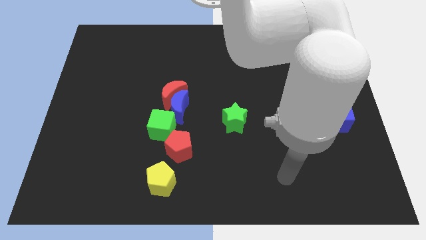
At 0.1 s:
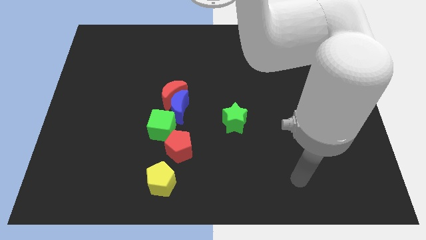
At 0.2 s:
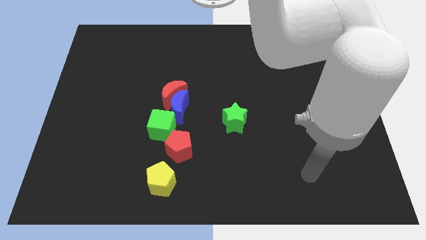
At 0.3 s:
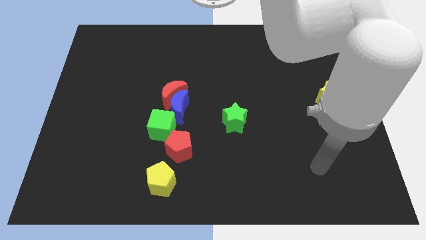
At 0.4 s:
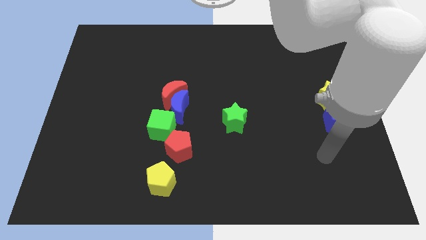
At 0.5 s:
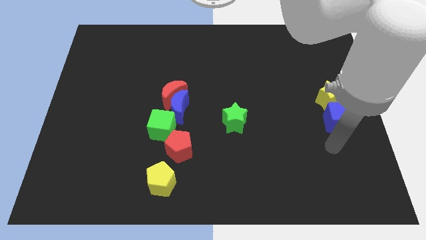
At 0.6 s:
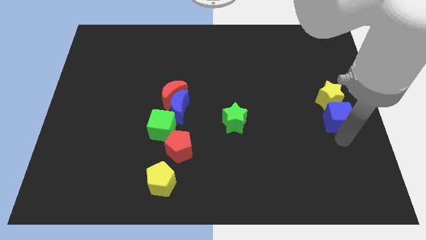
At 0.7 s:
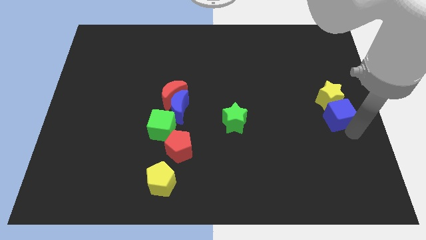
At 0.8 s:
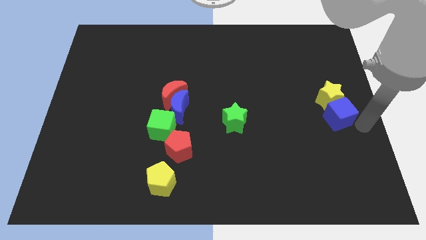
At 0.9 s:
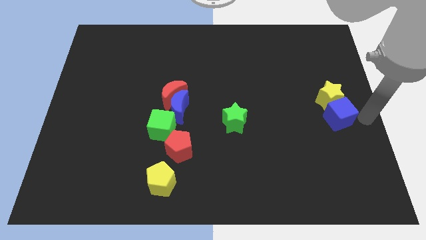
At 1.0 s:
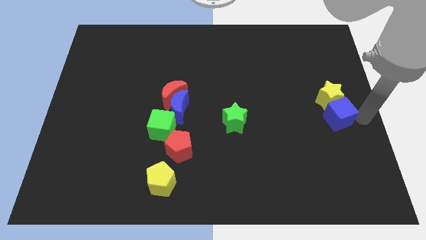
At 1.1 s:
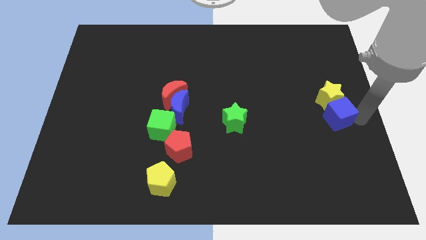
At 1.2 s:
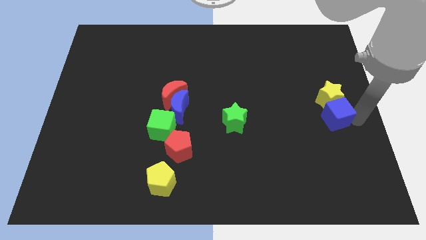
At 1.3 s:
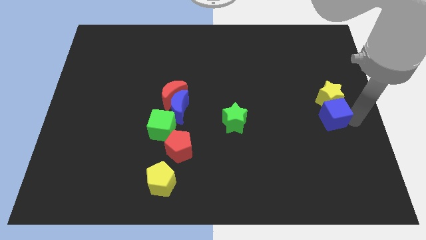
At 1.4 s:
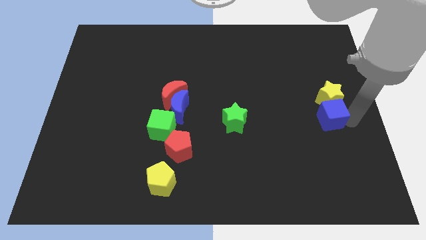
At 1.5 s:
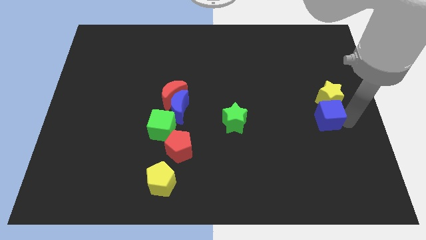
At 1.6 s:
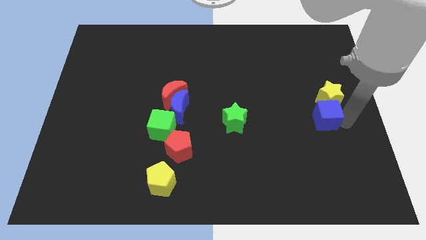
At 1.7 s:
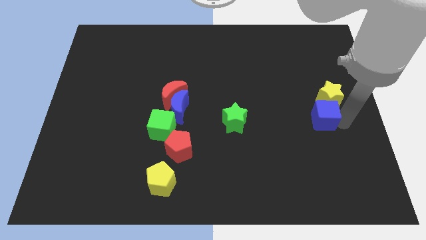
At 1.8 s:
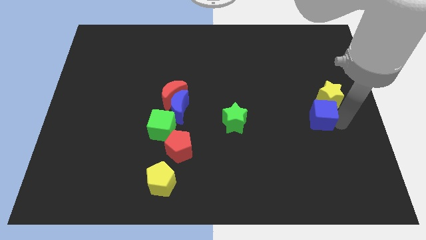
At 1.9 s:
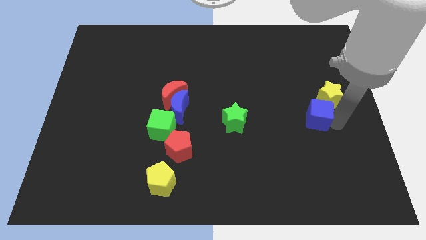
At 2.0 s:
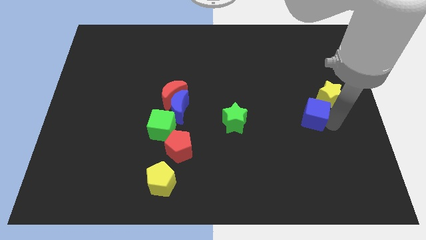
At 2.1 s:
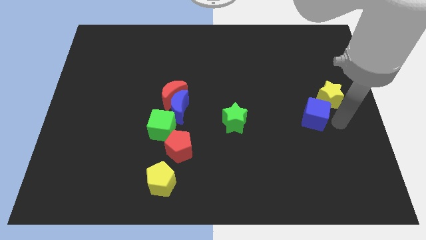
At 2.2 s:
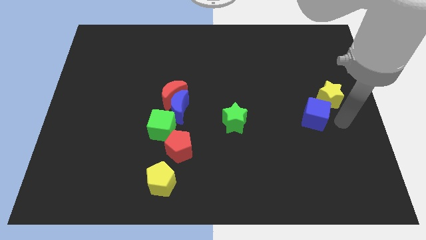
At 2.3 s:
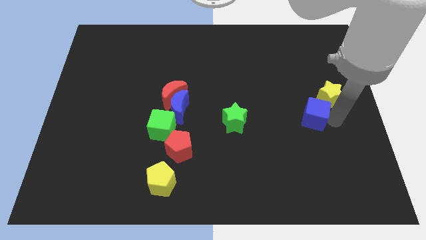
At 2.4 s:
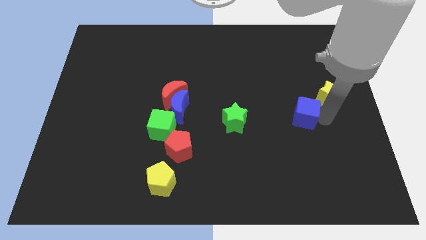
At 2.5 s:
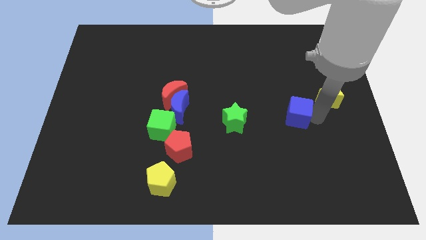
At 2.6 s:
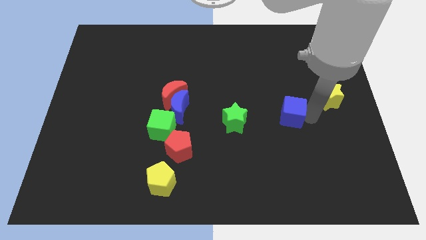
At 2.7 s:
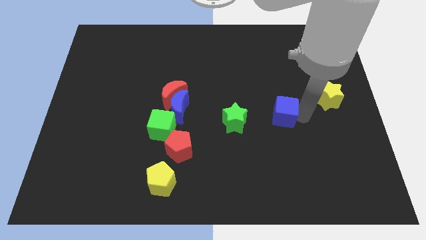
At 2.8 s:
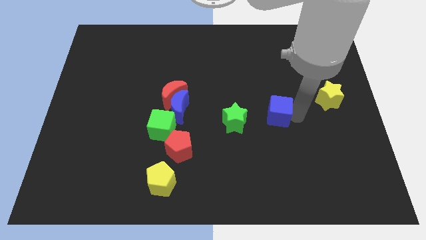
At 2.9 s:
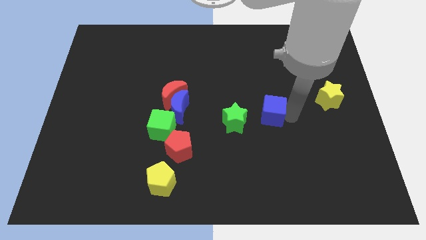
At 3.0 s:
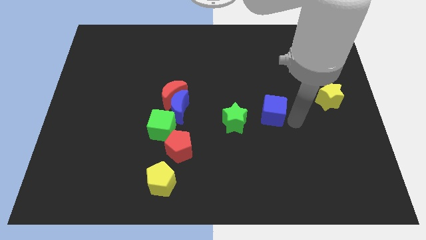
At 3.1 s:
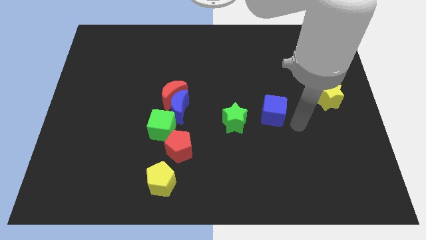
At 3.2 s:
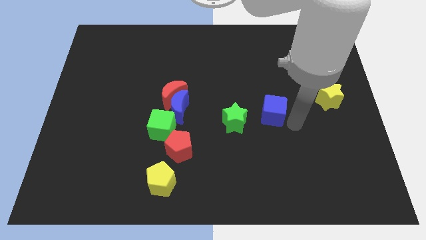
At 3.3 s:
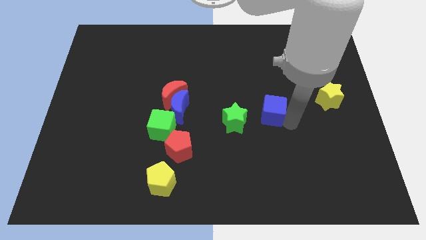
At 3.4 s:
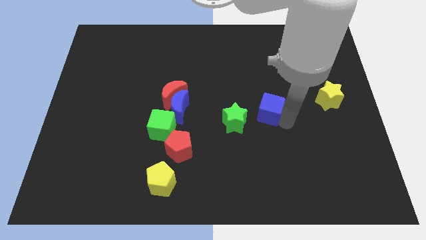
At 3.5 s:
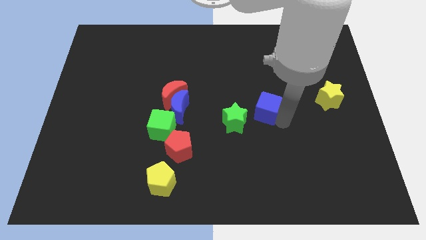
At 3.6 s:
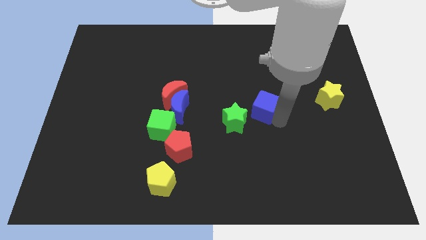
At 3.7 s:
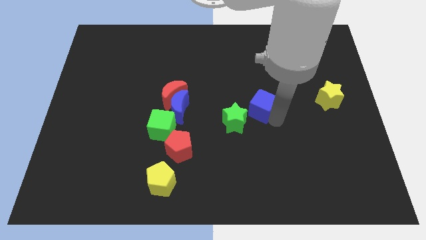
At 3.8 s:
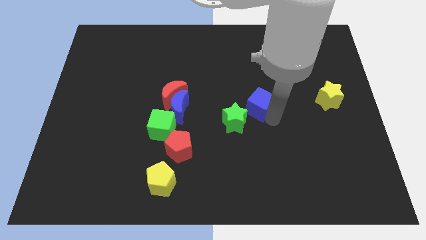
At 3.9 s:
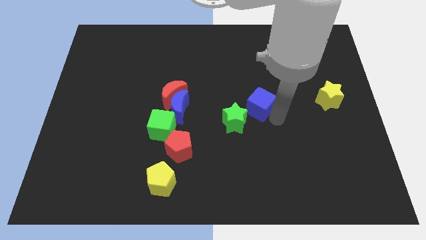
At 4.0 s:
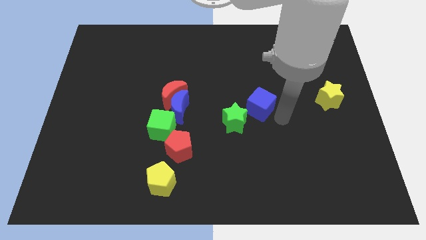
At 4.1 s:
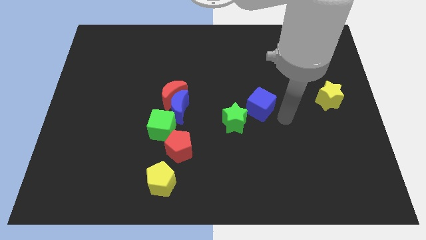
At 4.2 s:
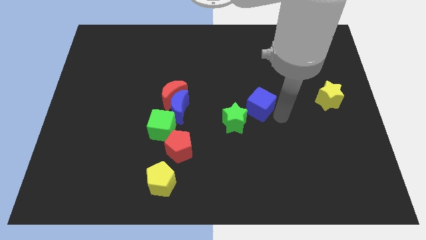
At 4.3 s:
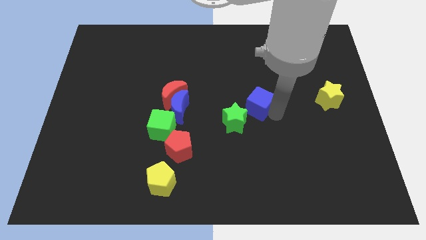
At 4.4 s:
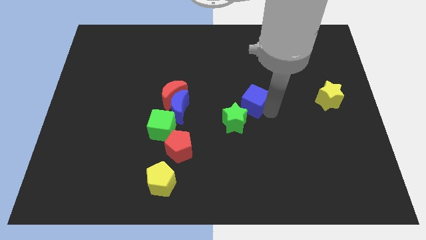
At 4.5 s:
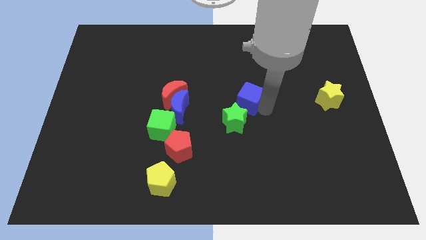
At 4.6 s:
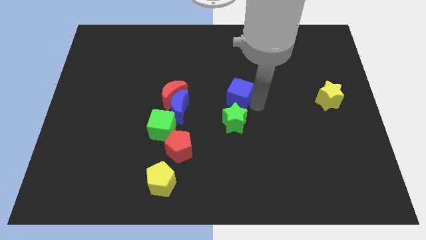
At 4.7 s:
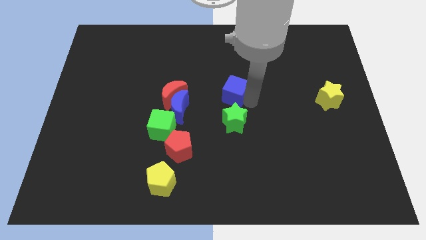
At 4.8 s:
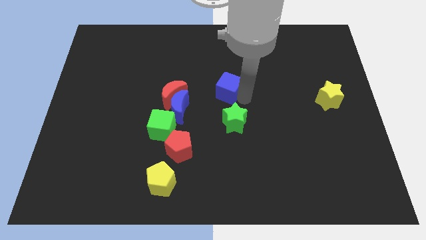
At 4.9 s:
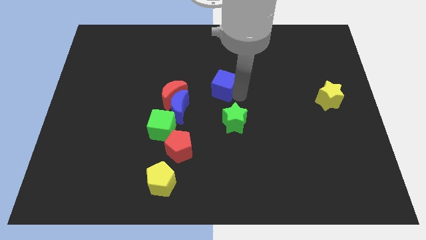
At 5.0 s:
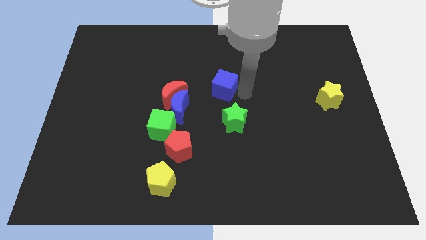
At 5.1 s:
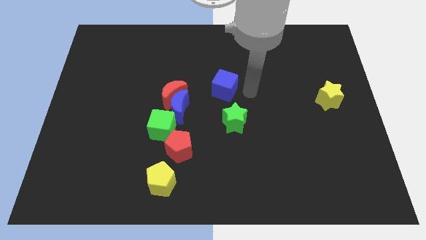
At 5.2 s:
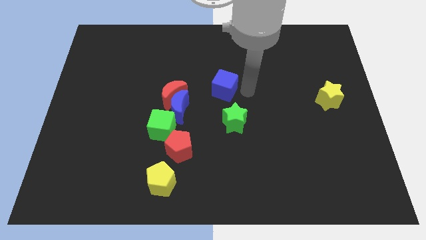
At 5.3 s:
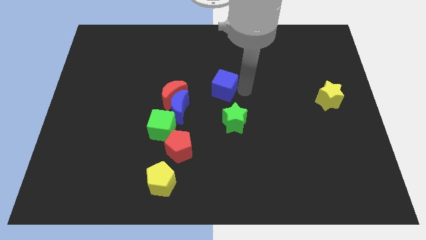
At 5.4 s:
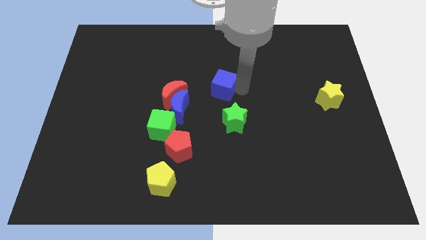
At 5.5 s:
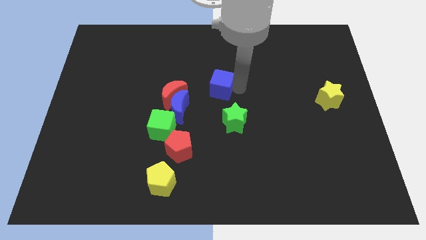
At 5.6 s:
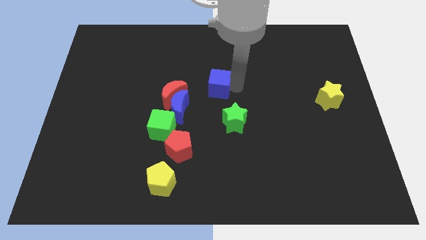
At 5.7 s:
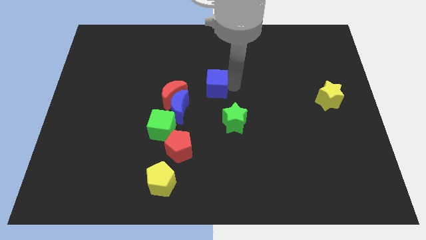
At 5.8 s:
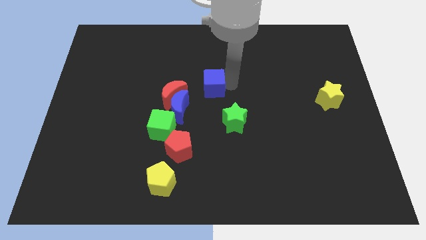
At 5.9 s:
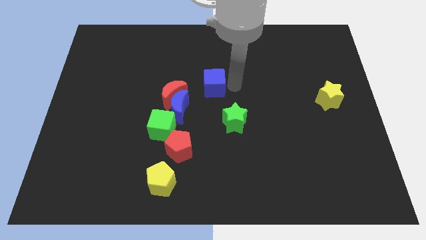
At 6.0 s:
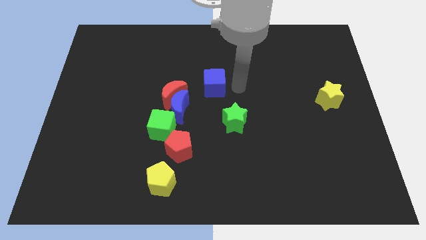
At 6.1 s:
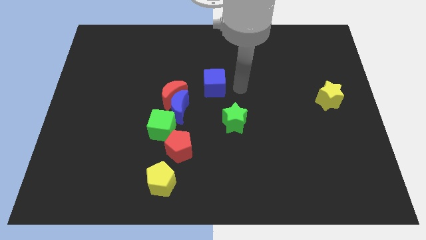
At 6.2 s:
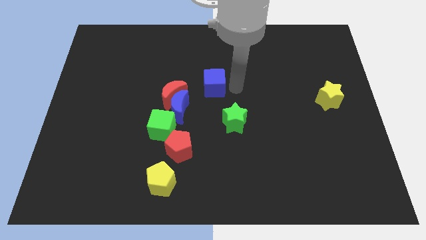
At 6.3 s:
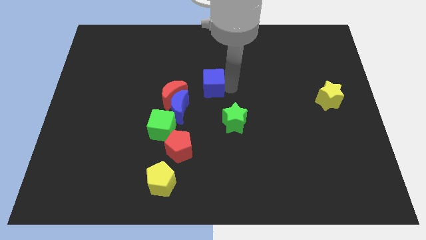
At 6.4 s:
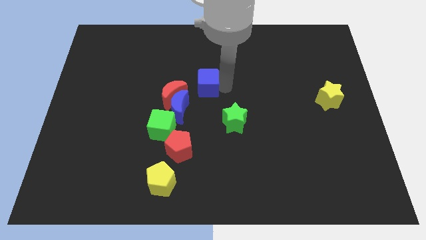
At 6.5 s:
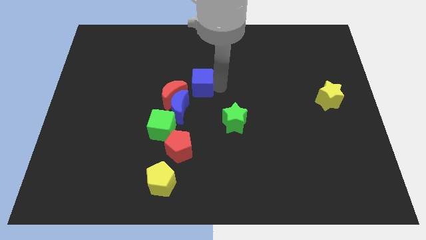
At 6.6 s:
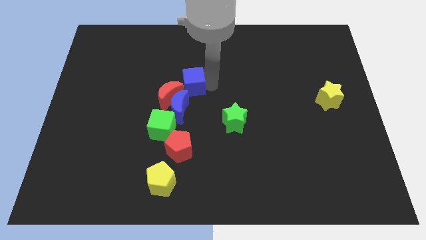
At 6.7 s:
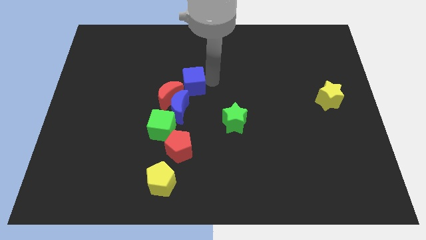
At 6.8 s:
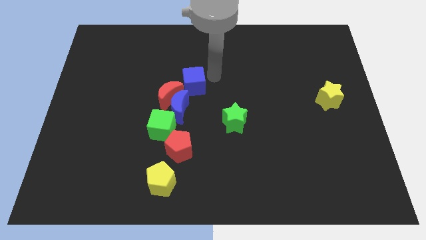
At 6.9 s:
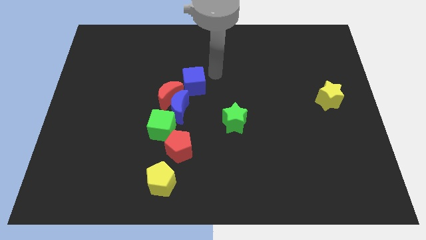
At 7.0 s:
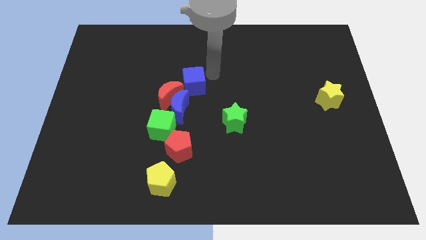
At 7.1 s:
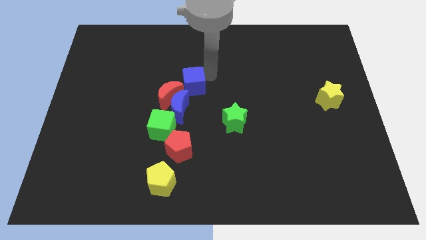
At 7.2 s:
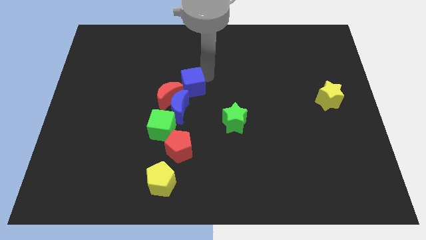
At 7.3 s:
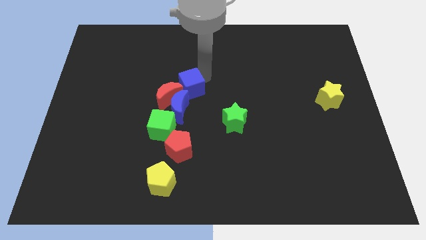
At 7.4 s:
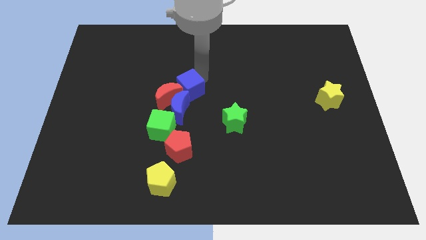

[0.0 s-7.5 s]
move the blue cube next to the red moon
